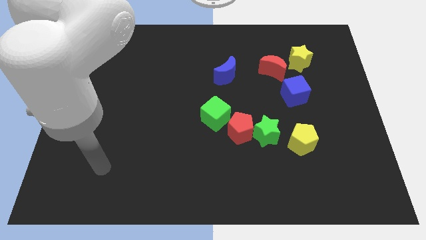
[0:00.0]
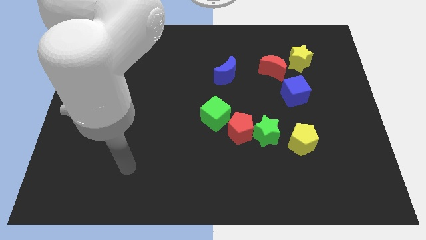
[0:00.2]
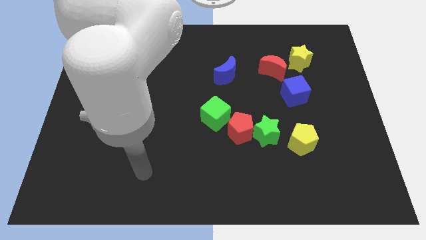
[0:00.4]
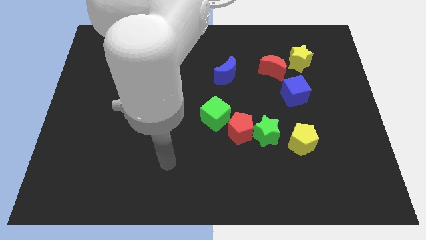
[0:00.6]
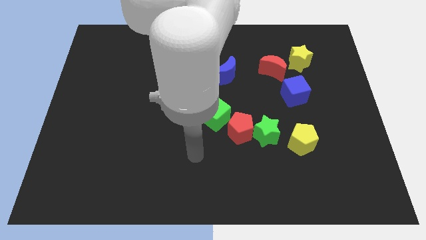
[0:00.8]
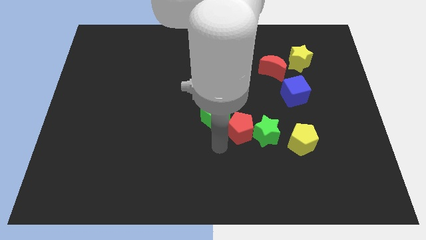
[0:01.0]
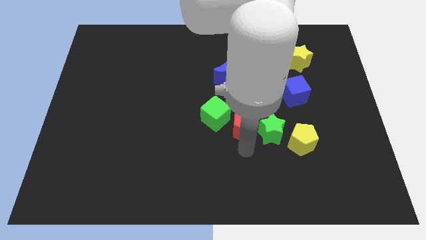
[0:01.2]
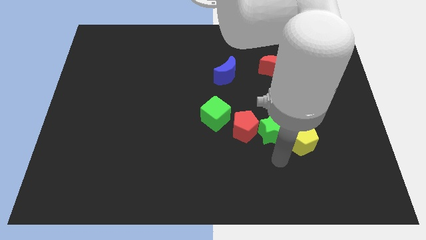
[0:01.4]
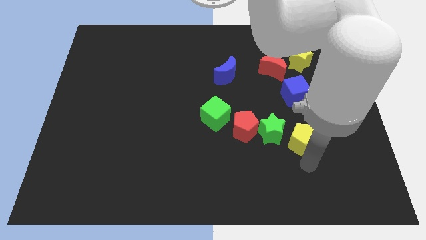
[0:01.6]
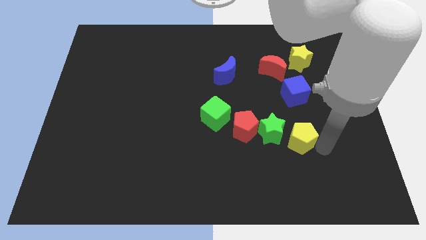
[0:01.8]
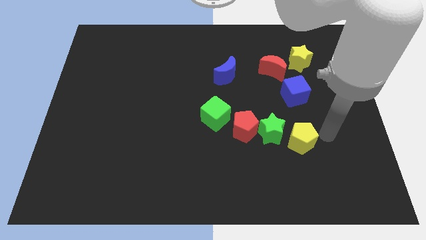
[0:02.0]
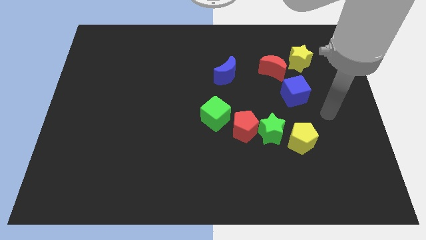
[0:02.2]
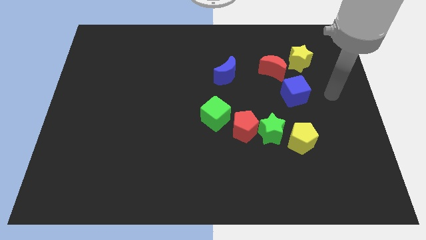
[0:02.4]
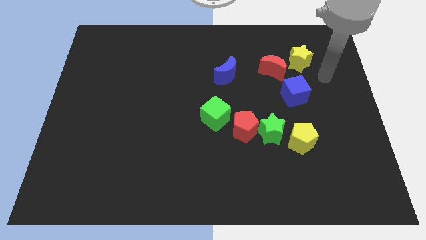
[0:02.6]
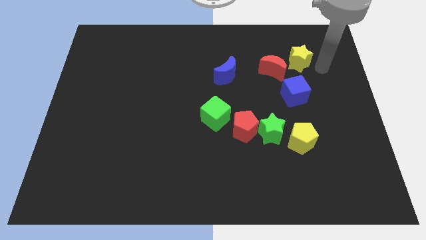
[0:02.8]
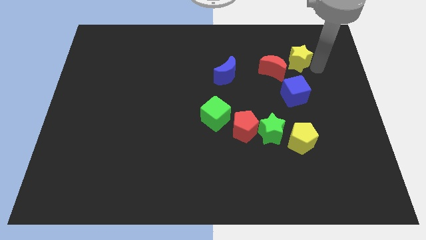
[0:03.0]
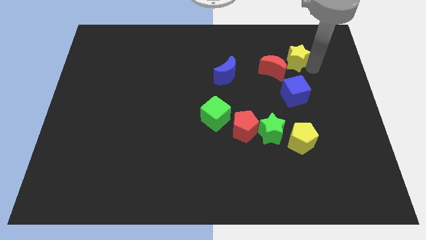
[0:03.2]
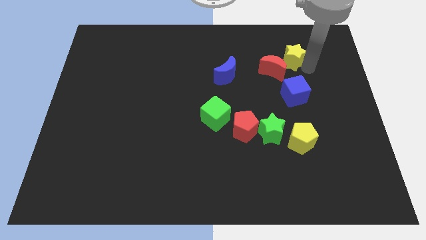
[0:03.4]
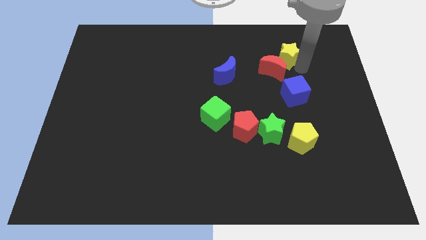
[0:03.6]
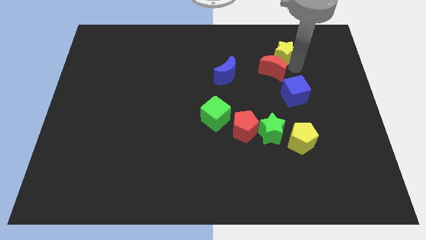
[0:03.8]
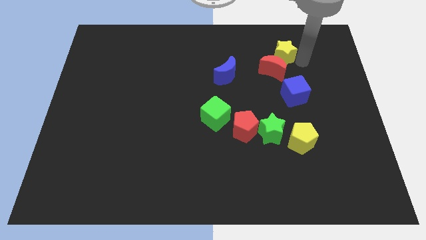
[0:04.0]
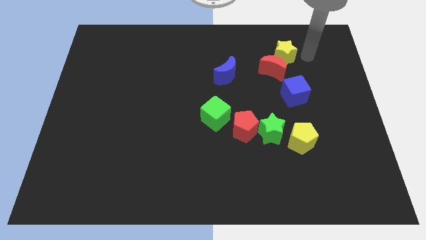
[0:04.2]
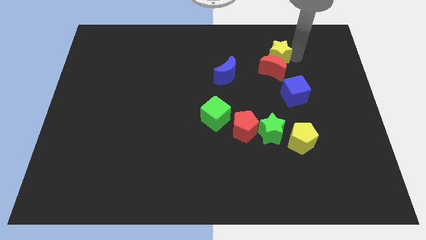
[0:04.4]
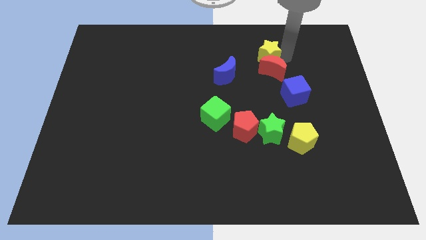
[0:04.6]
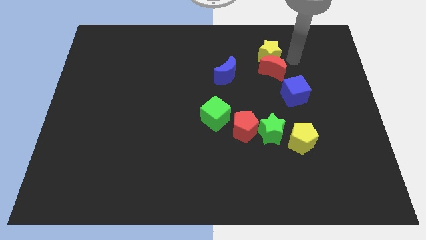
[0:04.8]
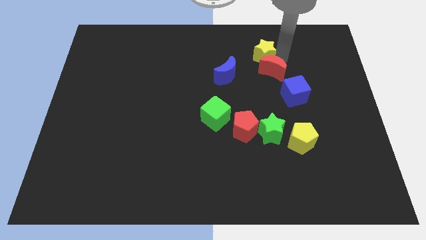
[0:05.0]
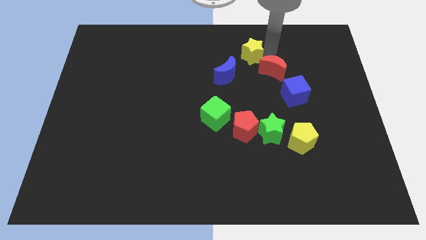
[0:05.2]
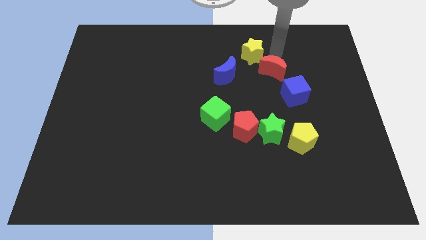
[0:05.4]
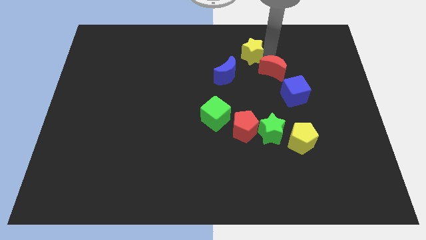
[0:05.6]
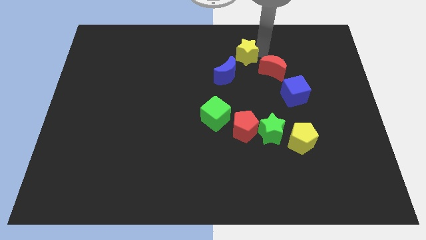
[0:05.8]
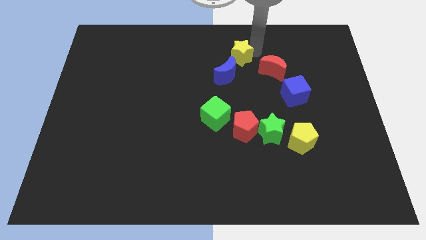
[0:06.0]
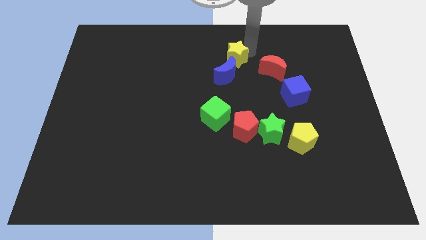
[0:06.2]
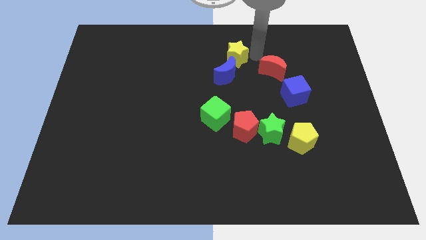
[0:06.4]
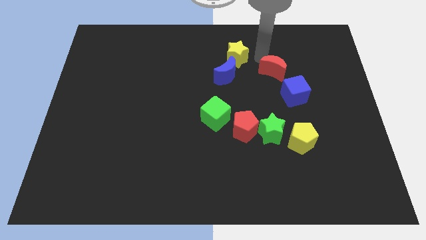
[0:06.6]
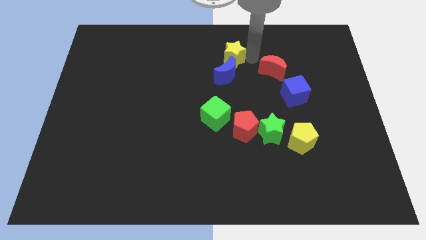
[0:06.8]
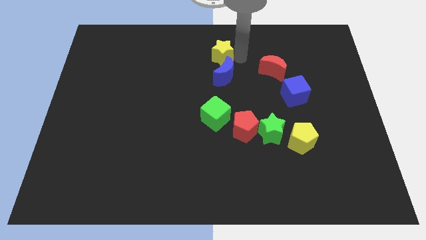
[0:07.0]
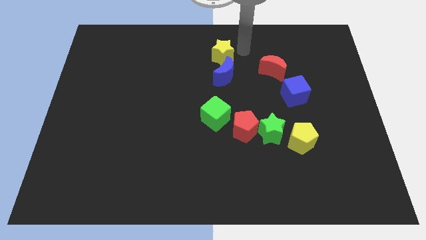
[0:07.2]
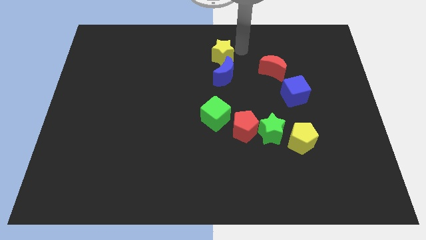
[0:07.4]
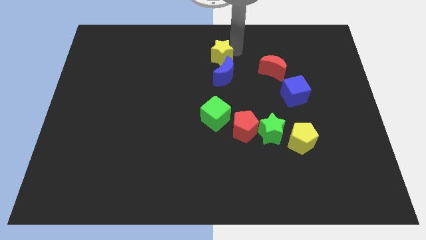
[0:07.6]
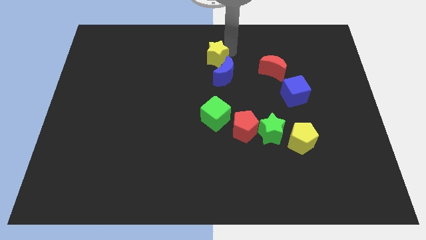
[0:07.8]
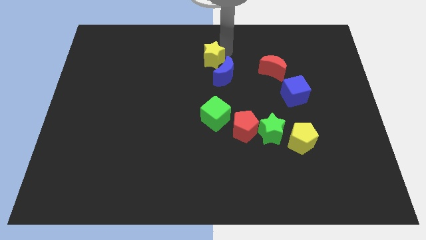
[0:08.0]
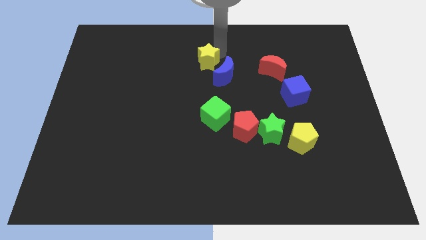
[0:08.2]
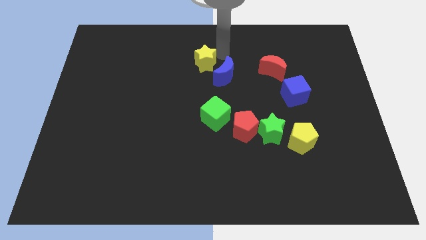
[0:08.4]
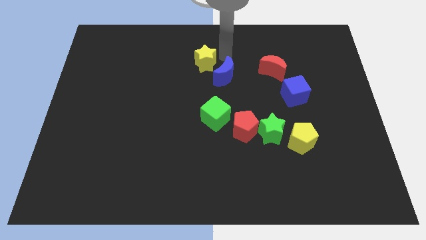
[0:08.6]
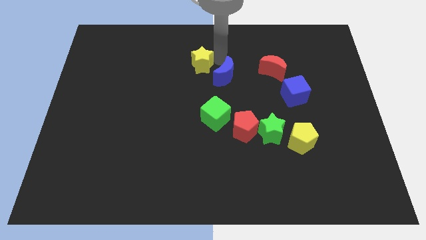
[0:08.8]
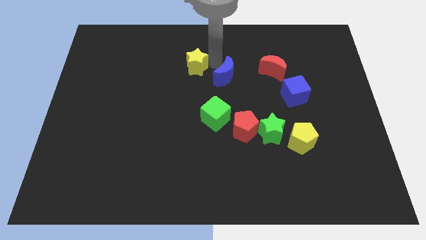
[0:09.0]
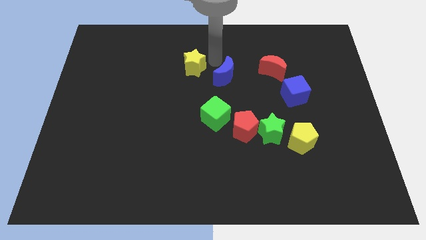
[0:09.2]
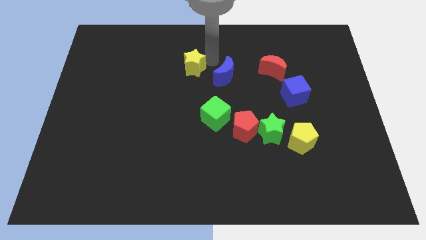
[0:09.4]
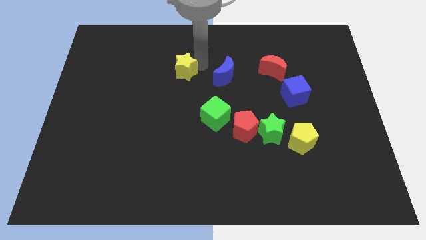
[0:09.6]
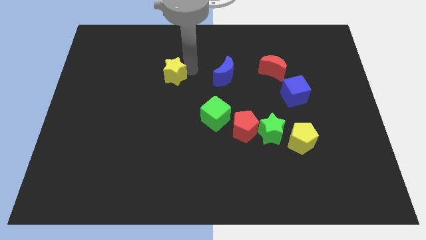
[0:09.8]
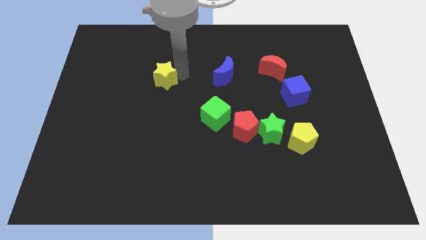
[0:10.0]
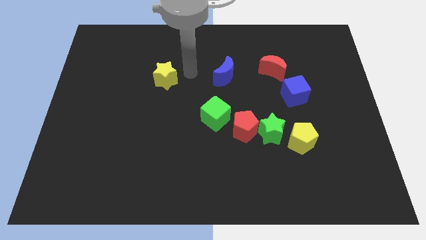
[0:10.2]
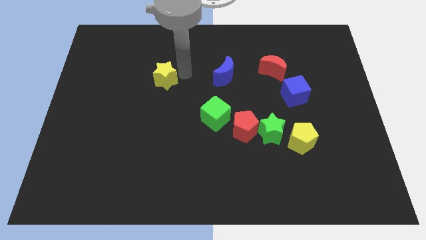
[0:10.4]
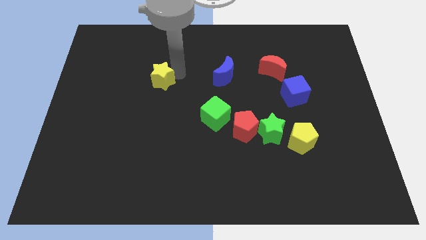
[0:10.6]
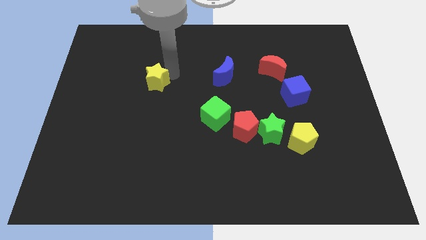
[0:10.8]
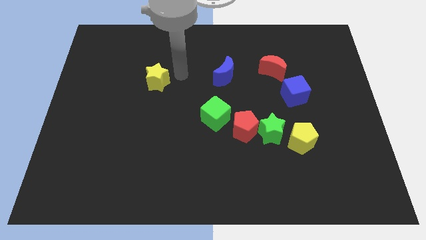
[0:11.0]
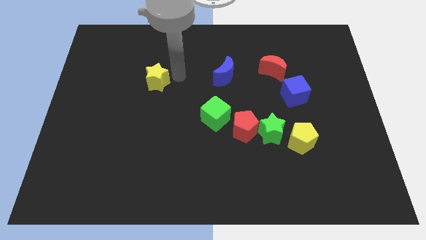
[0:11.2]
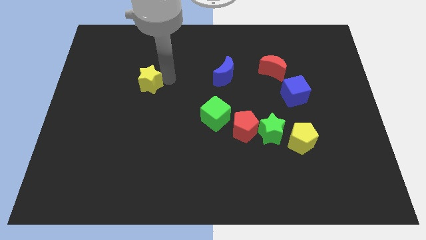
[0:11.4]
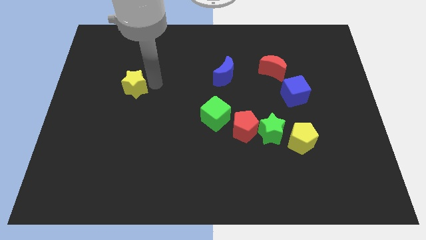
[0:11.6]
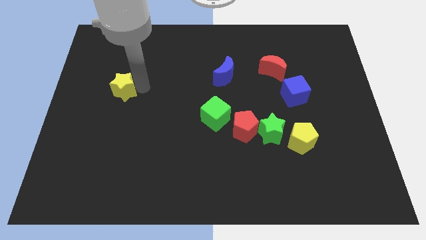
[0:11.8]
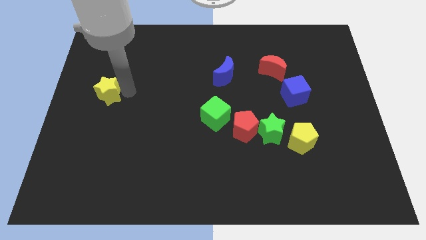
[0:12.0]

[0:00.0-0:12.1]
put the yellow star to the left side

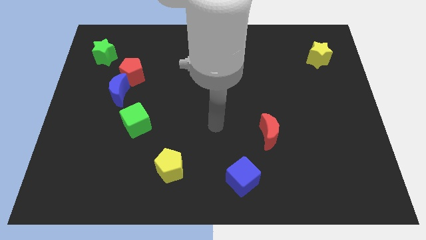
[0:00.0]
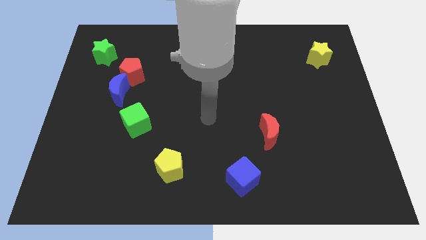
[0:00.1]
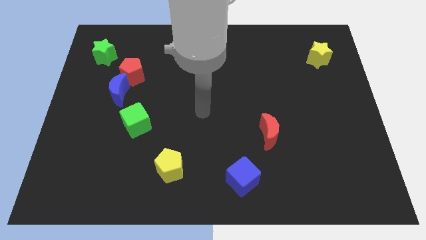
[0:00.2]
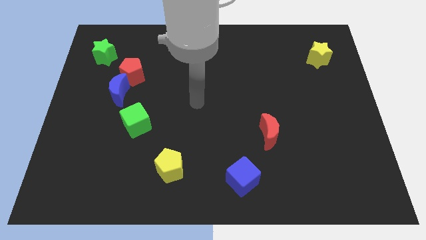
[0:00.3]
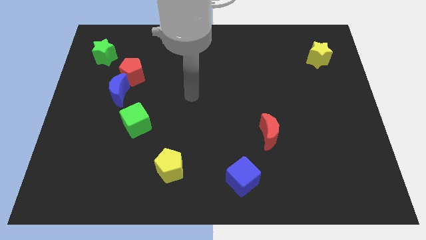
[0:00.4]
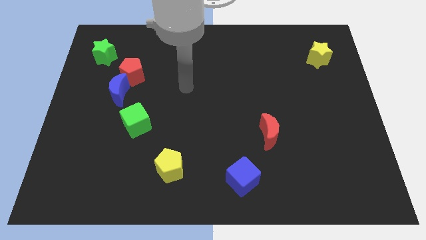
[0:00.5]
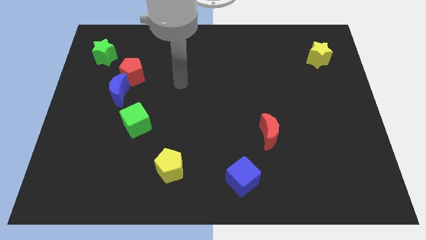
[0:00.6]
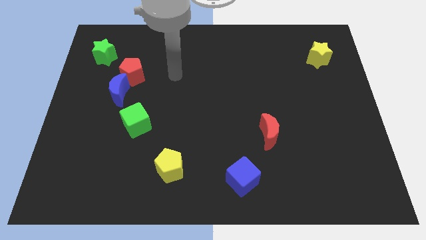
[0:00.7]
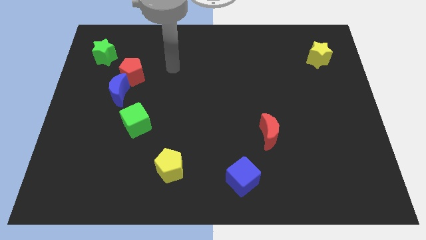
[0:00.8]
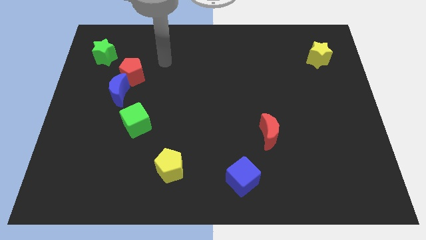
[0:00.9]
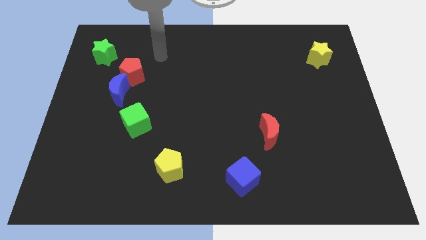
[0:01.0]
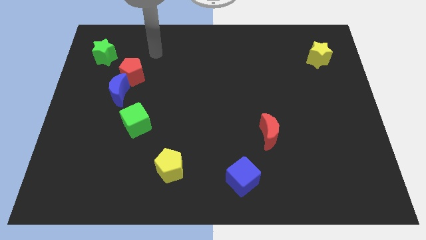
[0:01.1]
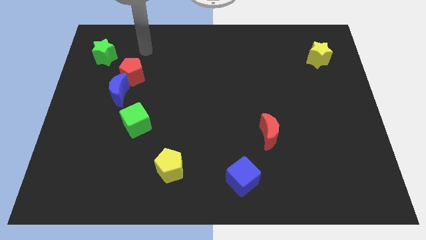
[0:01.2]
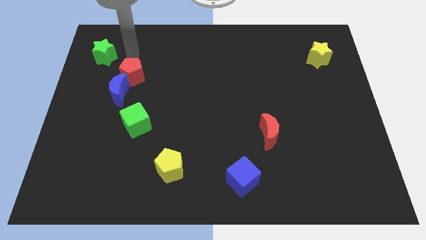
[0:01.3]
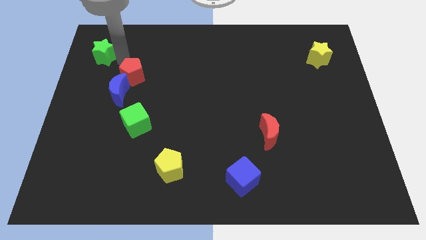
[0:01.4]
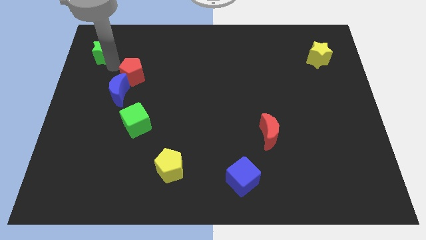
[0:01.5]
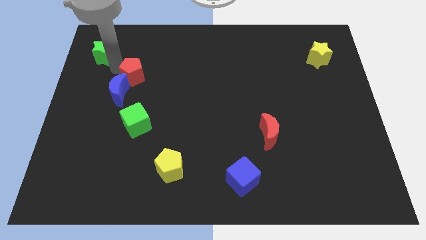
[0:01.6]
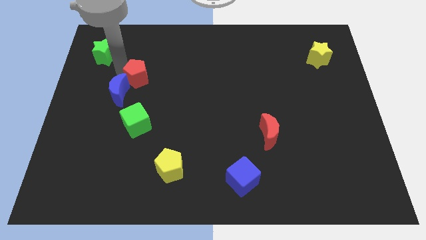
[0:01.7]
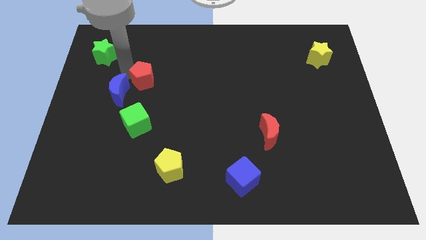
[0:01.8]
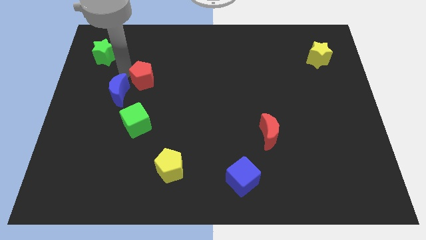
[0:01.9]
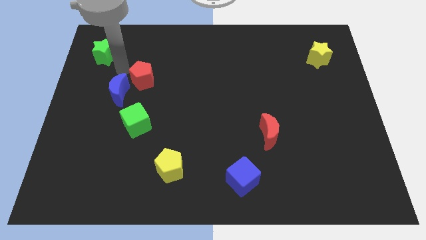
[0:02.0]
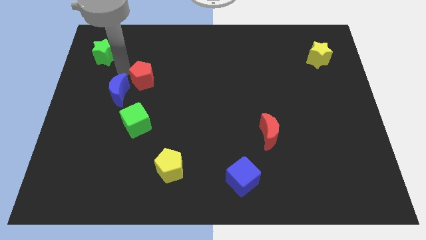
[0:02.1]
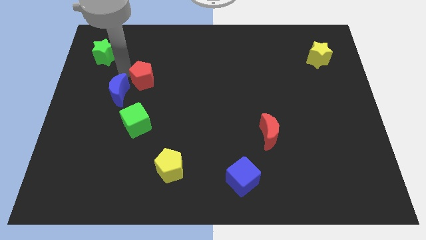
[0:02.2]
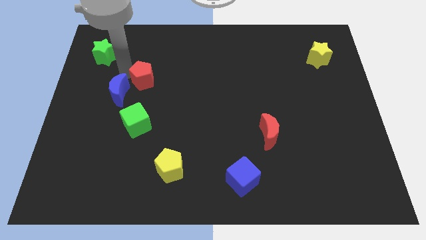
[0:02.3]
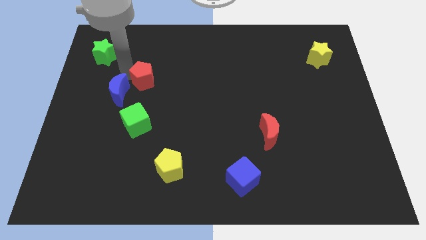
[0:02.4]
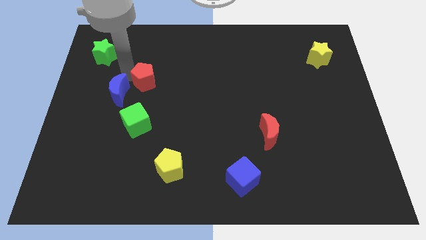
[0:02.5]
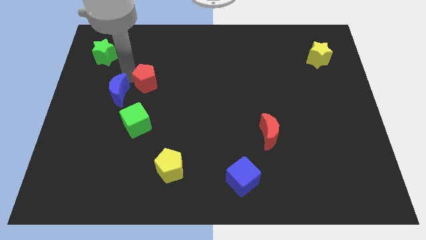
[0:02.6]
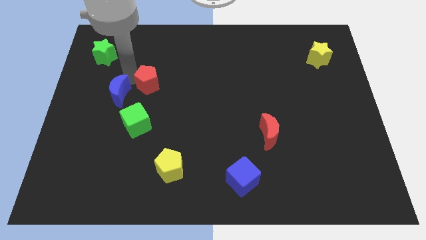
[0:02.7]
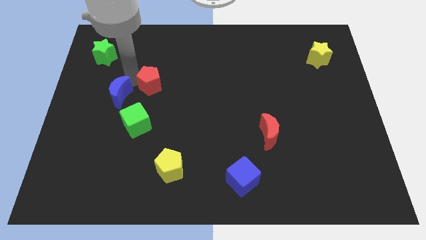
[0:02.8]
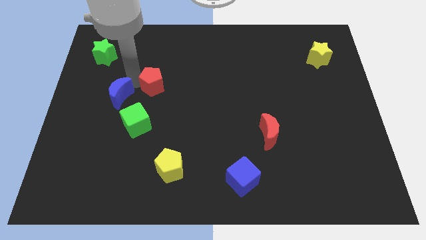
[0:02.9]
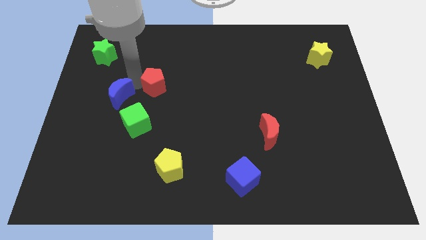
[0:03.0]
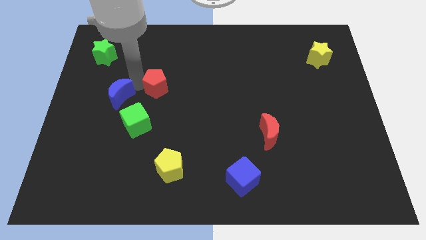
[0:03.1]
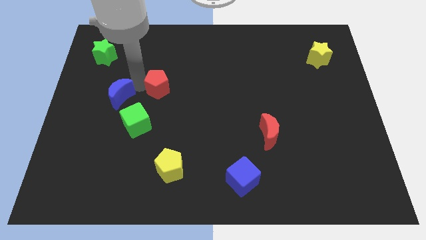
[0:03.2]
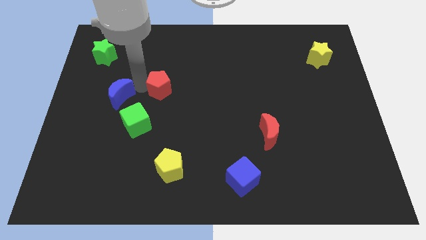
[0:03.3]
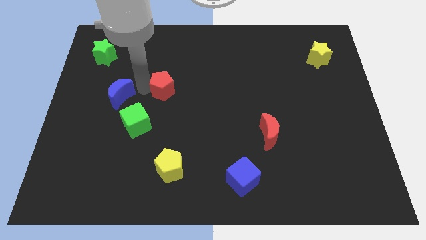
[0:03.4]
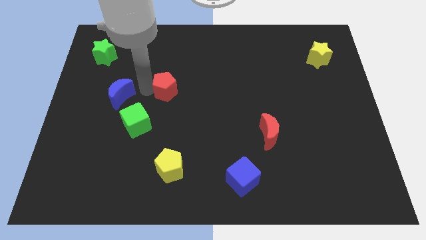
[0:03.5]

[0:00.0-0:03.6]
put the red pentagon to the middle of the board
